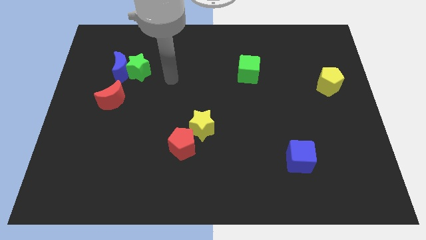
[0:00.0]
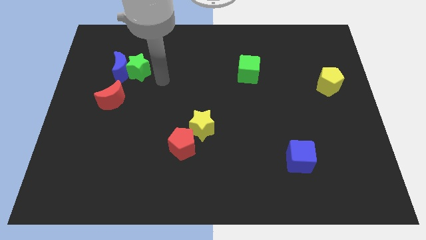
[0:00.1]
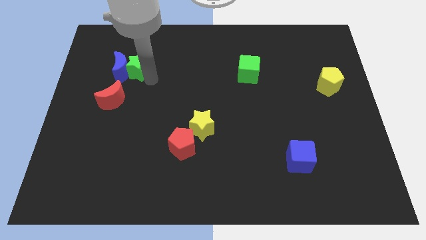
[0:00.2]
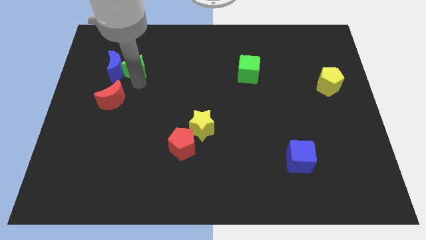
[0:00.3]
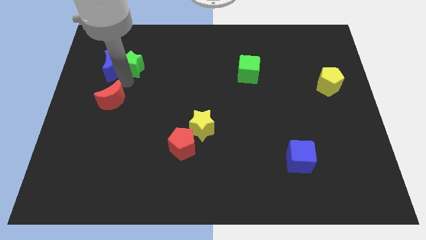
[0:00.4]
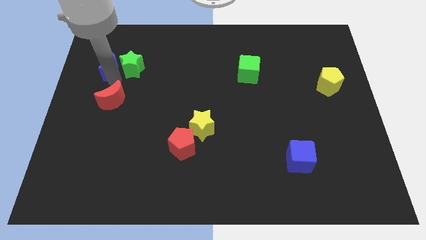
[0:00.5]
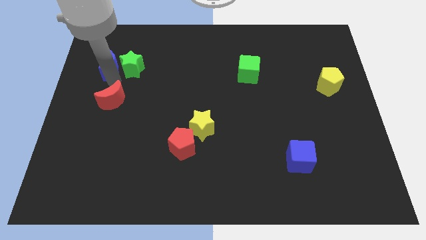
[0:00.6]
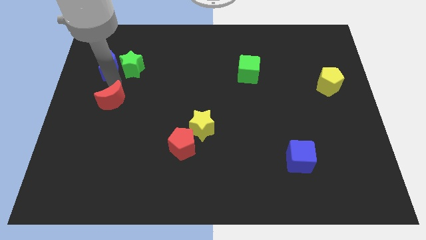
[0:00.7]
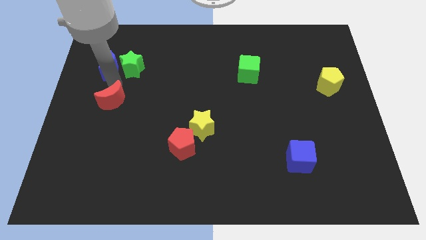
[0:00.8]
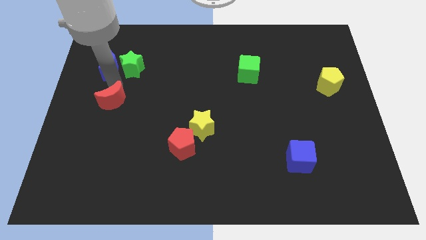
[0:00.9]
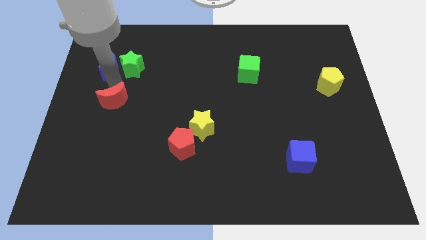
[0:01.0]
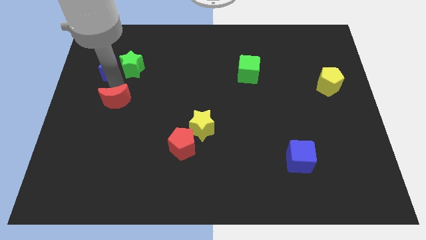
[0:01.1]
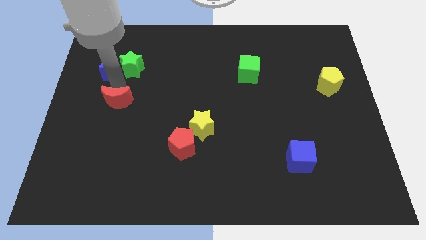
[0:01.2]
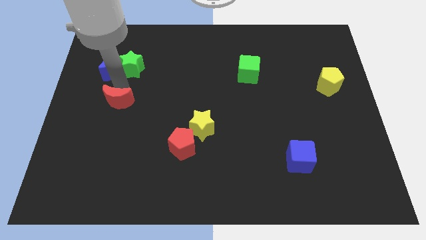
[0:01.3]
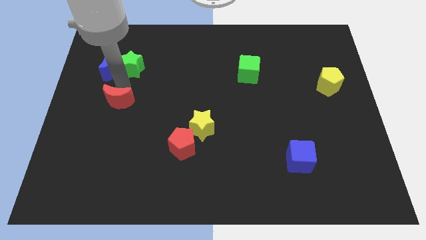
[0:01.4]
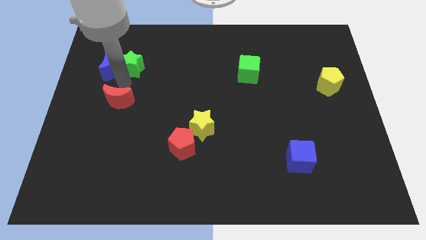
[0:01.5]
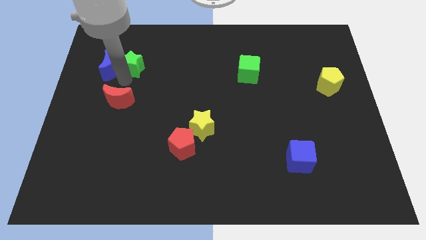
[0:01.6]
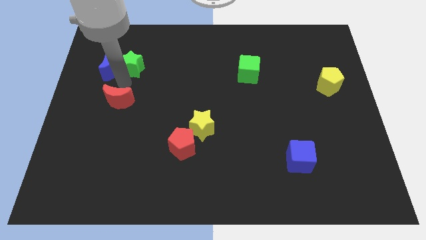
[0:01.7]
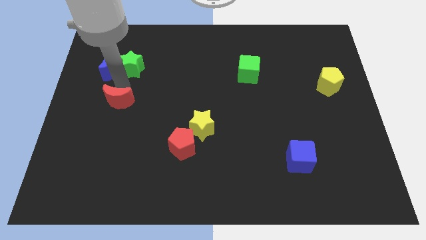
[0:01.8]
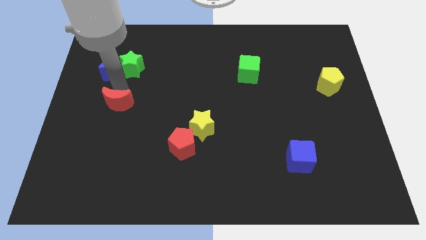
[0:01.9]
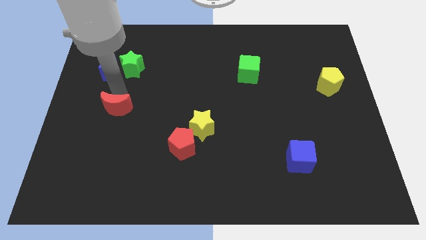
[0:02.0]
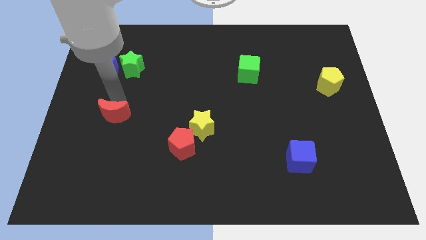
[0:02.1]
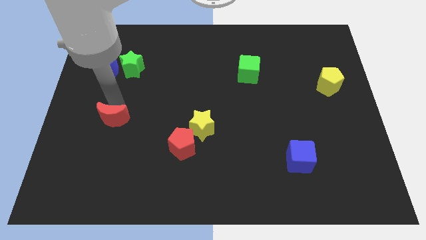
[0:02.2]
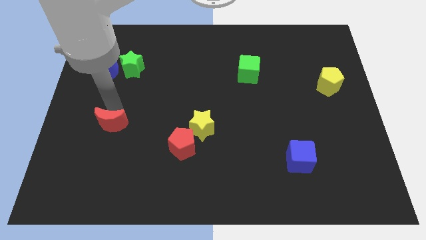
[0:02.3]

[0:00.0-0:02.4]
slightly push the red moon down

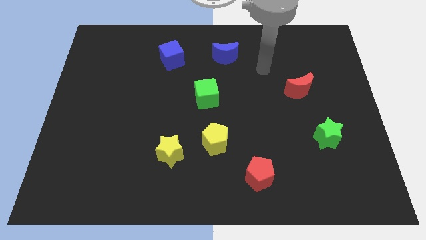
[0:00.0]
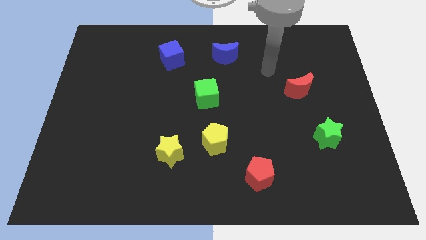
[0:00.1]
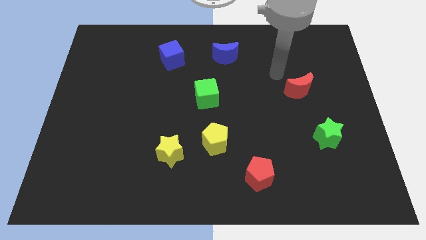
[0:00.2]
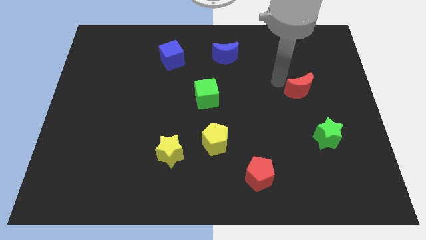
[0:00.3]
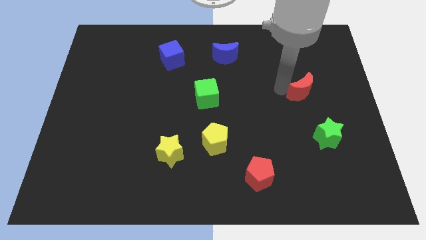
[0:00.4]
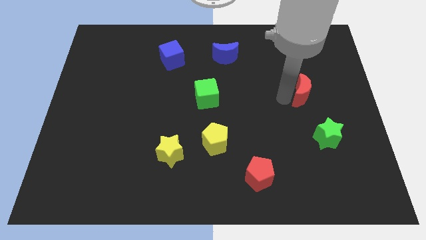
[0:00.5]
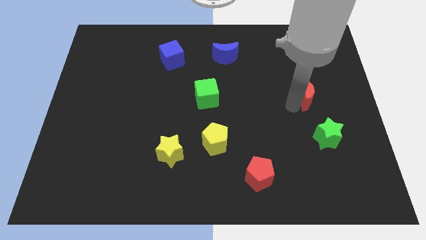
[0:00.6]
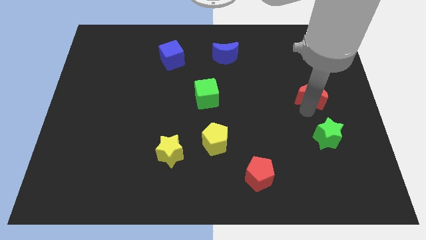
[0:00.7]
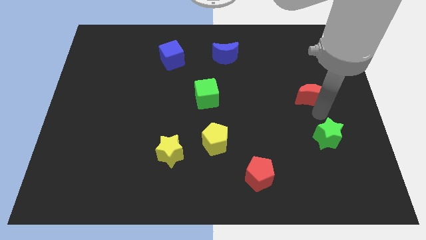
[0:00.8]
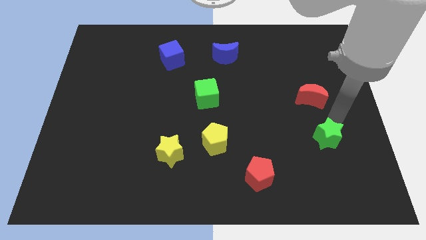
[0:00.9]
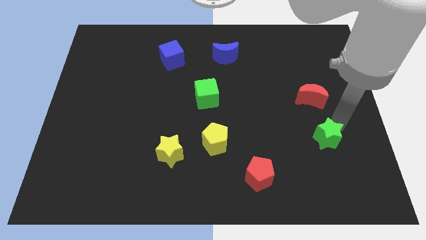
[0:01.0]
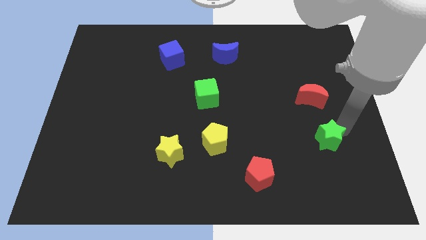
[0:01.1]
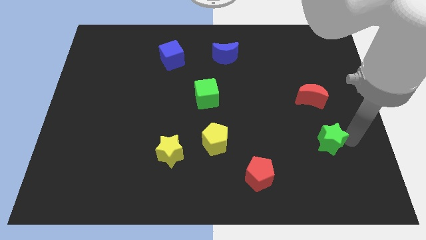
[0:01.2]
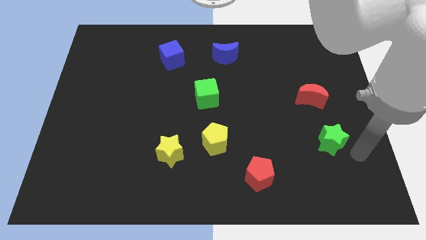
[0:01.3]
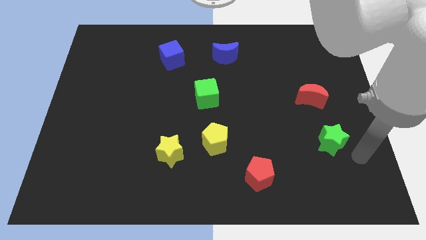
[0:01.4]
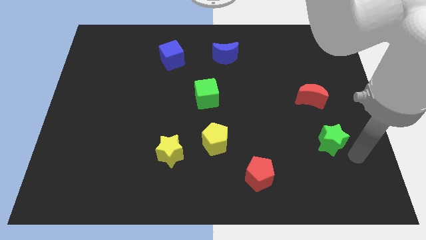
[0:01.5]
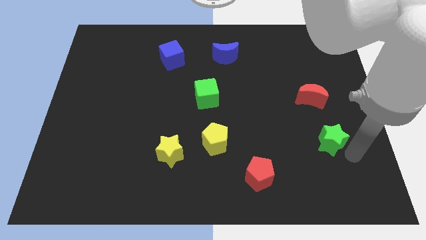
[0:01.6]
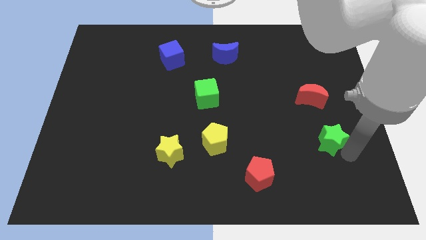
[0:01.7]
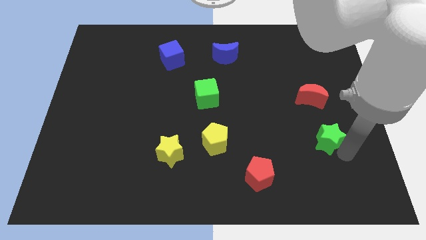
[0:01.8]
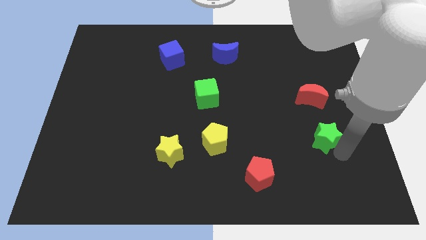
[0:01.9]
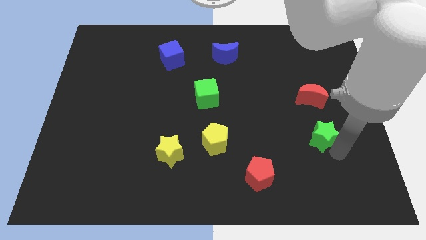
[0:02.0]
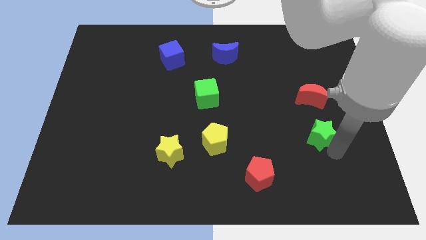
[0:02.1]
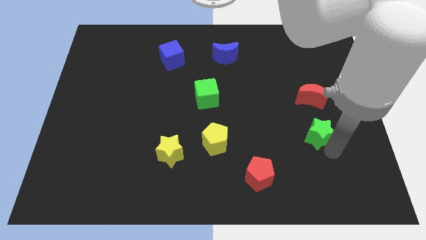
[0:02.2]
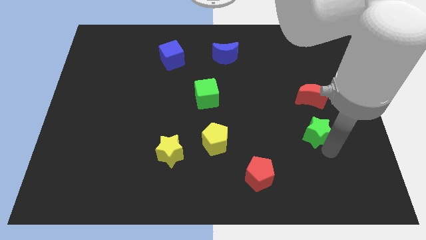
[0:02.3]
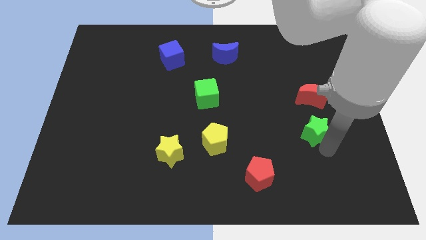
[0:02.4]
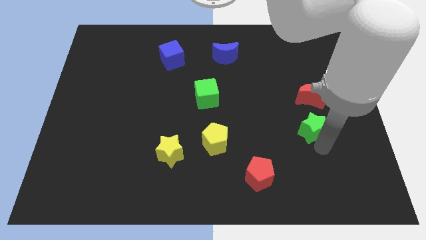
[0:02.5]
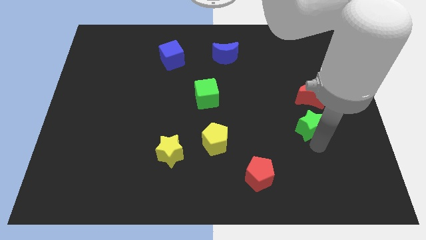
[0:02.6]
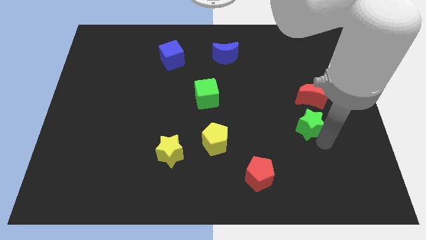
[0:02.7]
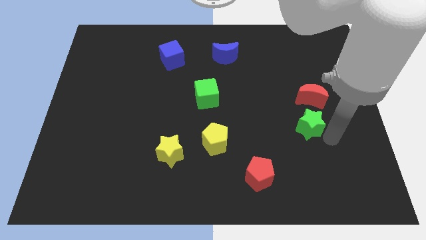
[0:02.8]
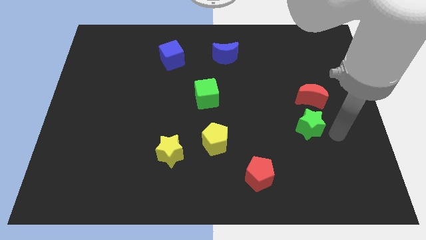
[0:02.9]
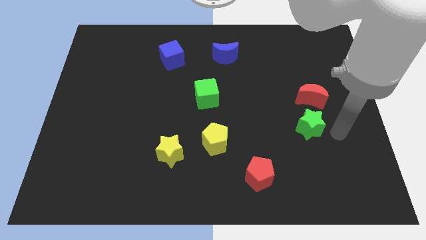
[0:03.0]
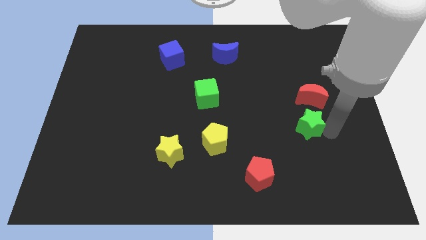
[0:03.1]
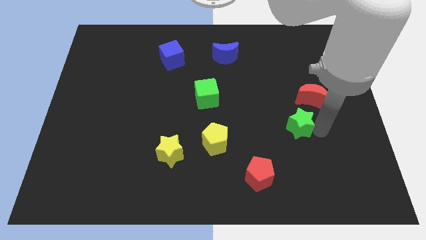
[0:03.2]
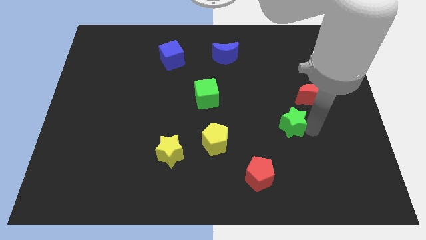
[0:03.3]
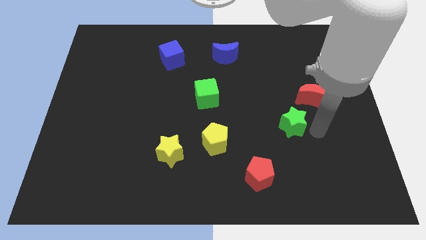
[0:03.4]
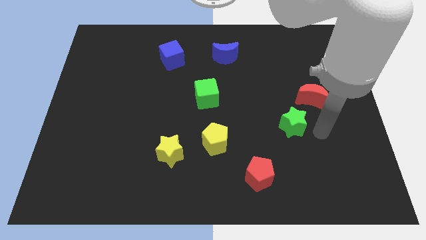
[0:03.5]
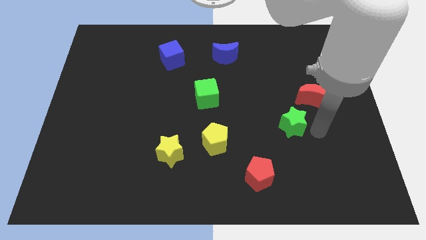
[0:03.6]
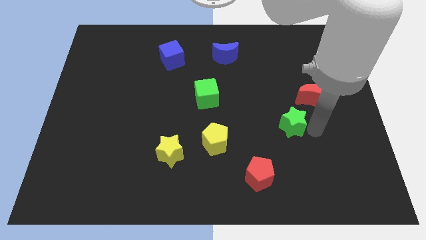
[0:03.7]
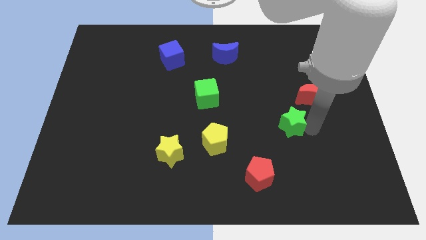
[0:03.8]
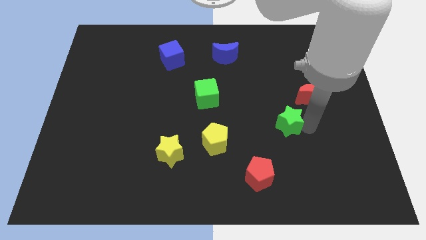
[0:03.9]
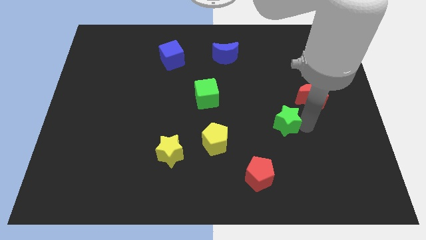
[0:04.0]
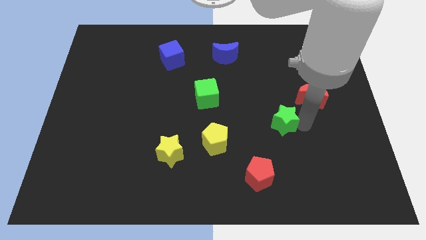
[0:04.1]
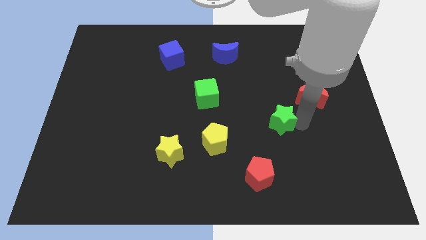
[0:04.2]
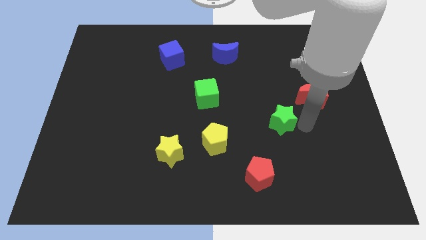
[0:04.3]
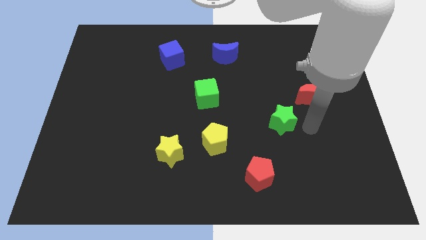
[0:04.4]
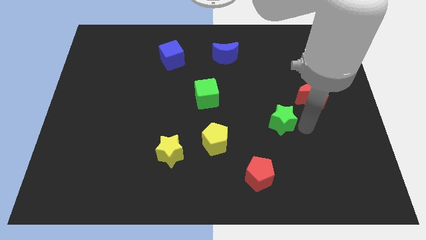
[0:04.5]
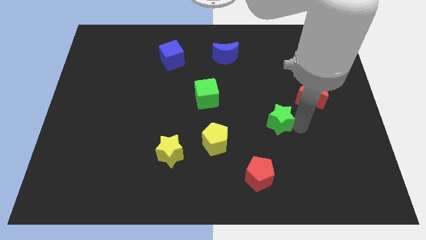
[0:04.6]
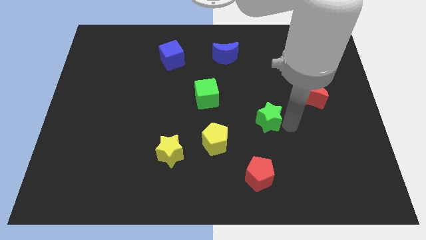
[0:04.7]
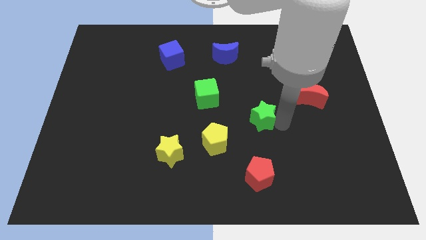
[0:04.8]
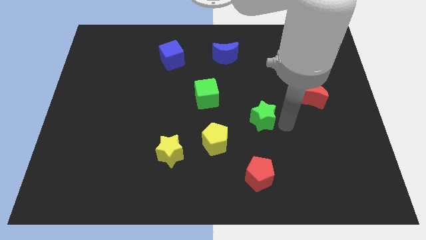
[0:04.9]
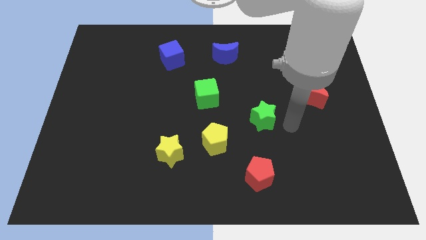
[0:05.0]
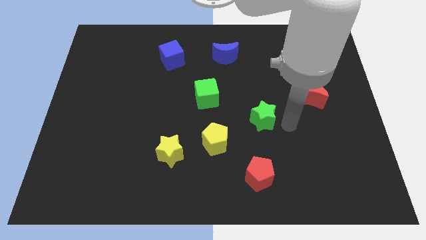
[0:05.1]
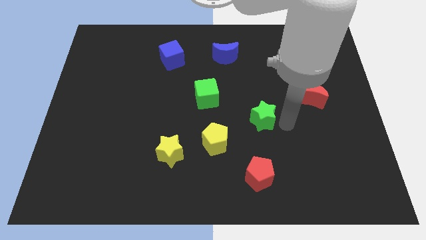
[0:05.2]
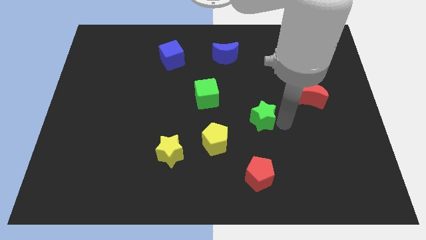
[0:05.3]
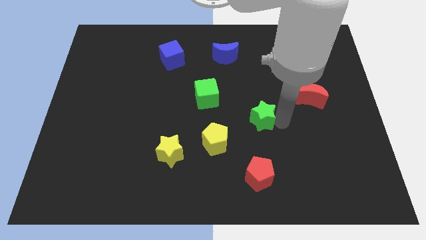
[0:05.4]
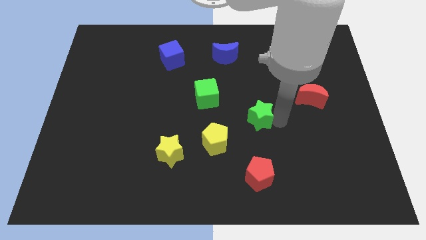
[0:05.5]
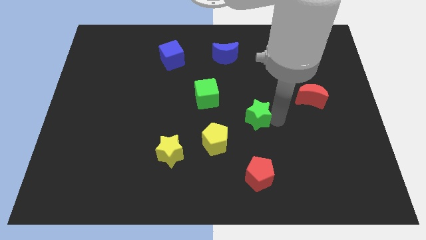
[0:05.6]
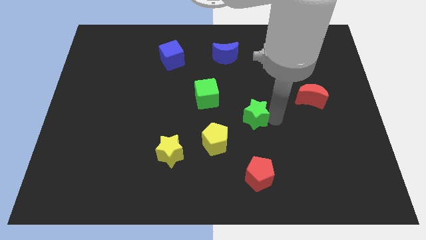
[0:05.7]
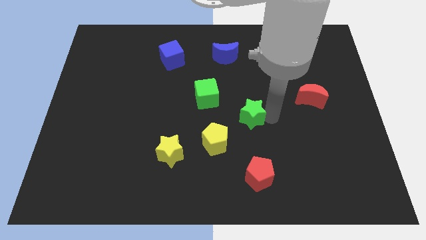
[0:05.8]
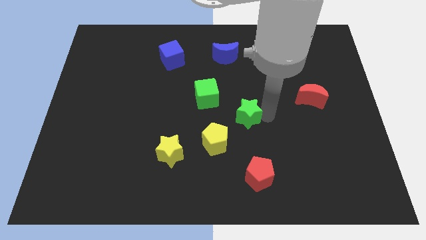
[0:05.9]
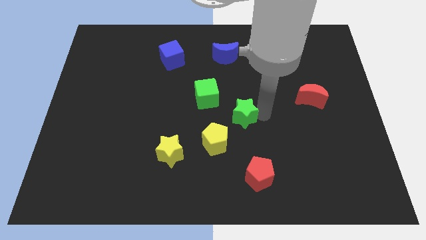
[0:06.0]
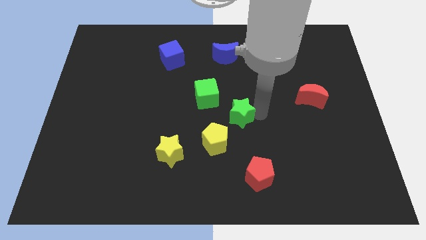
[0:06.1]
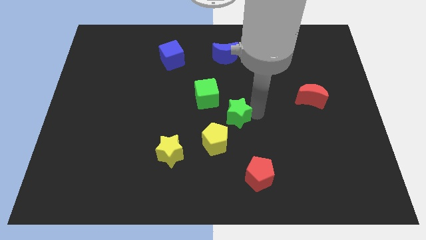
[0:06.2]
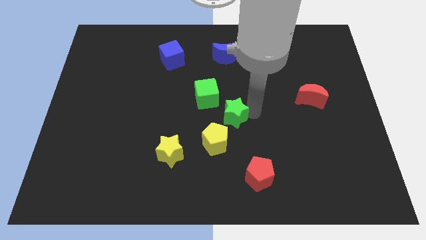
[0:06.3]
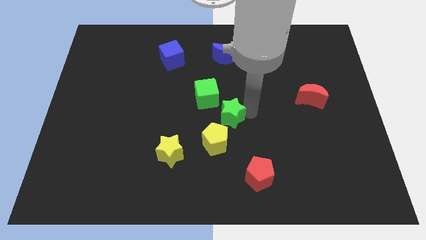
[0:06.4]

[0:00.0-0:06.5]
move the green star to the left
